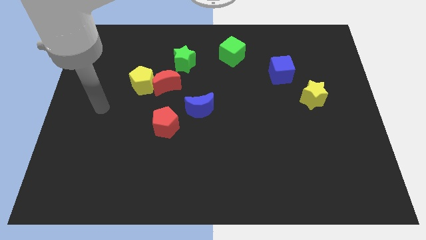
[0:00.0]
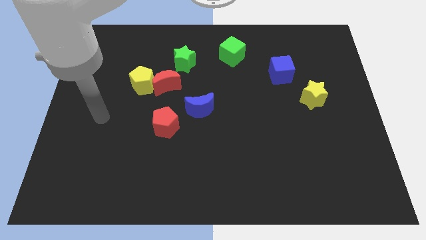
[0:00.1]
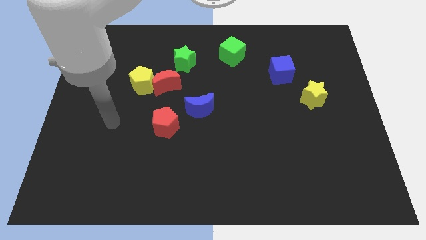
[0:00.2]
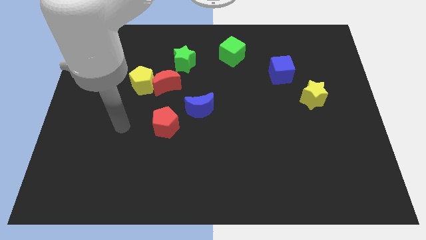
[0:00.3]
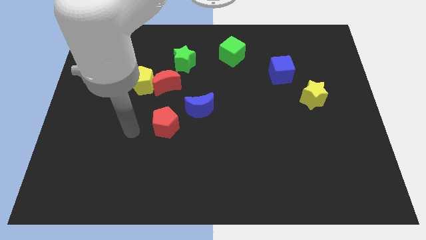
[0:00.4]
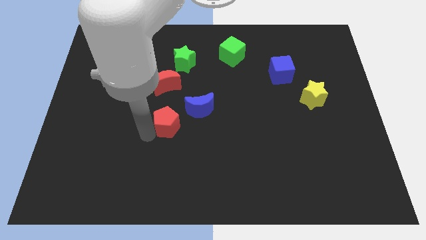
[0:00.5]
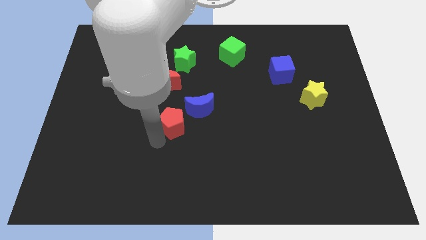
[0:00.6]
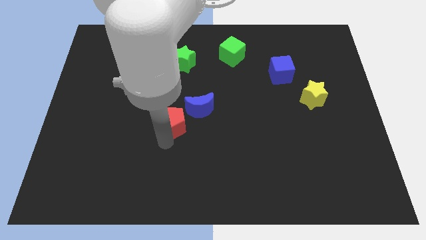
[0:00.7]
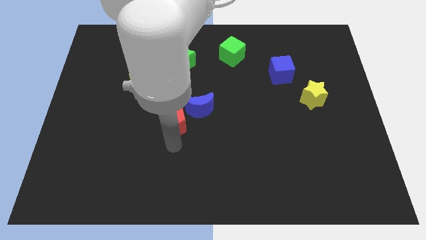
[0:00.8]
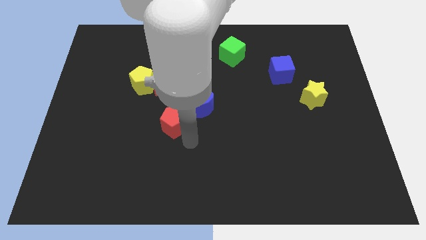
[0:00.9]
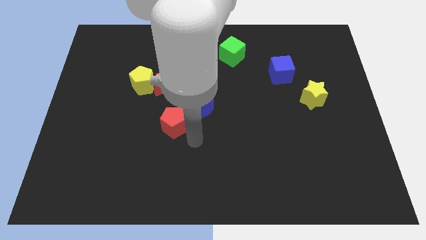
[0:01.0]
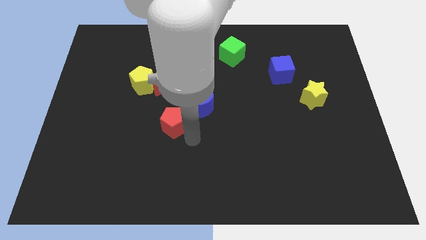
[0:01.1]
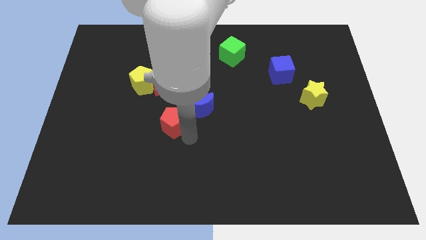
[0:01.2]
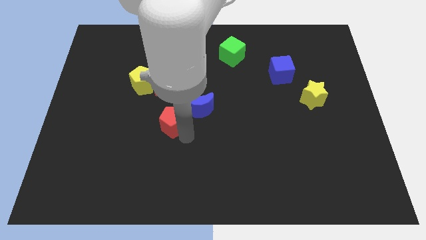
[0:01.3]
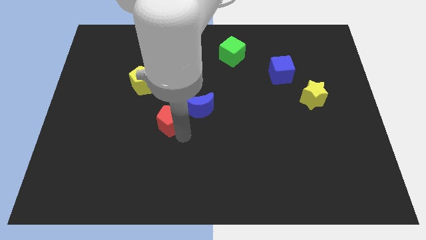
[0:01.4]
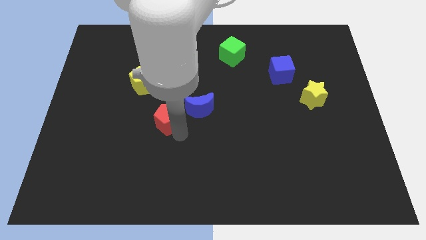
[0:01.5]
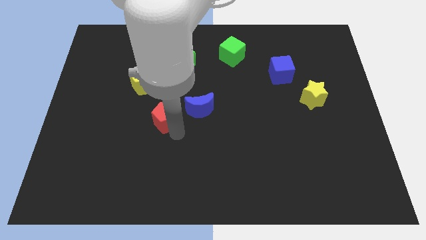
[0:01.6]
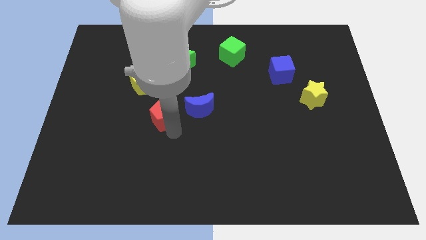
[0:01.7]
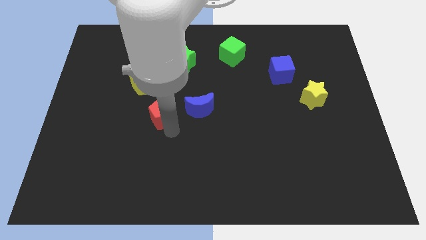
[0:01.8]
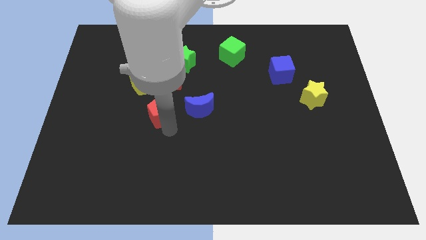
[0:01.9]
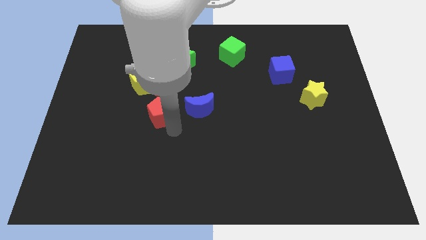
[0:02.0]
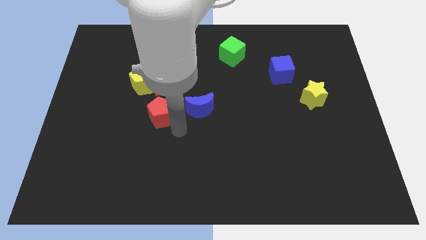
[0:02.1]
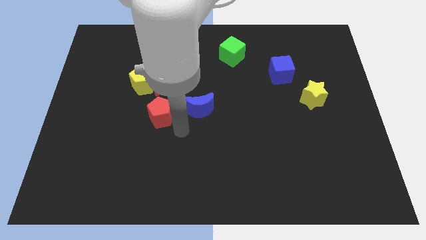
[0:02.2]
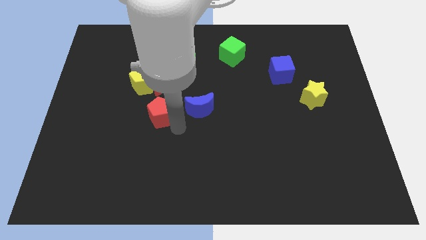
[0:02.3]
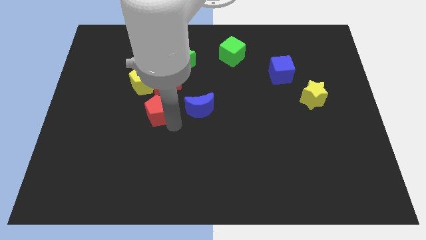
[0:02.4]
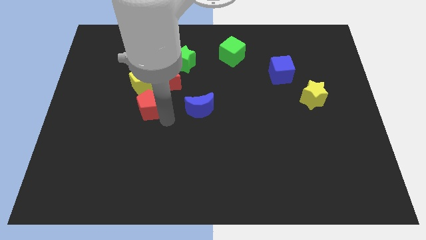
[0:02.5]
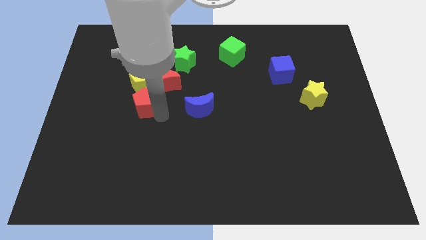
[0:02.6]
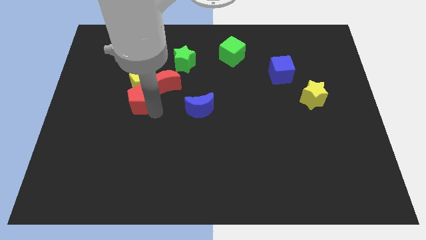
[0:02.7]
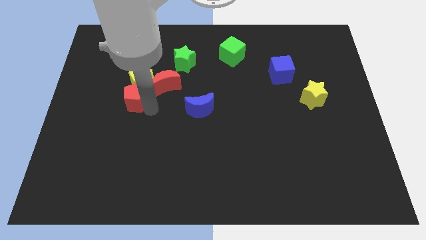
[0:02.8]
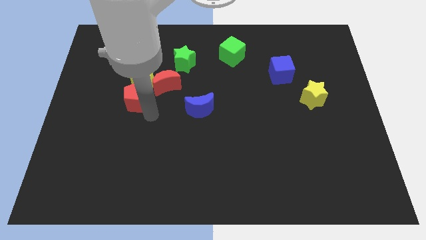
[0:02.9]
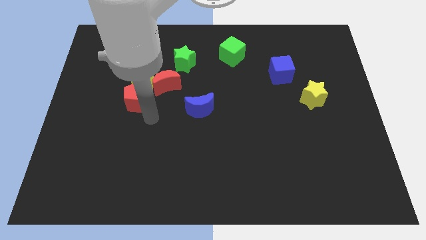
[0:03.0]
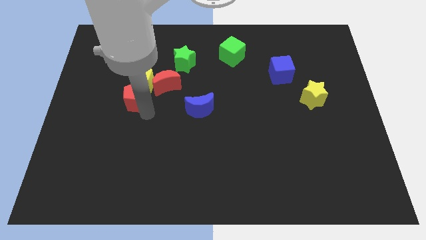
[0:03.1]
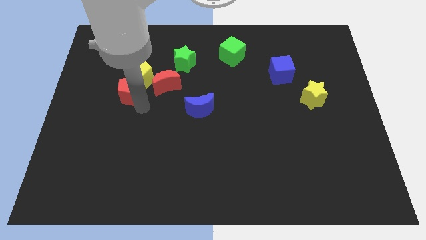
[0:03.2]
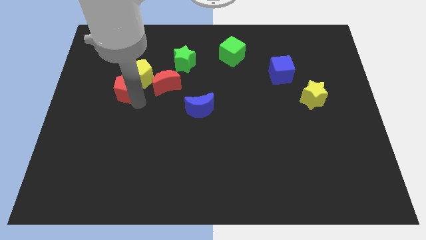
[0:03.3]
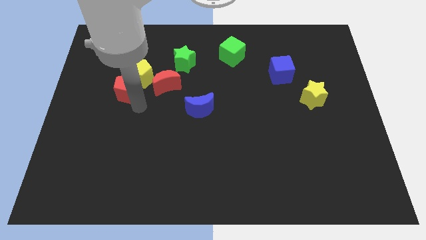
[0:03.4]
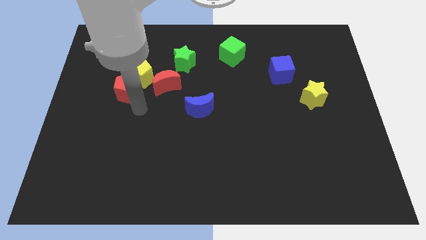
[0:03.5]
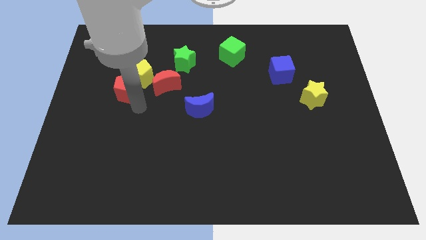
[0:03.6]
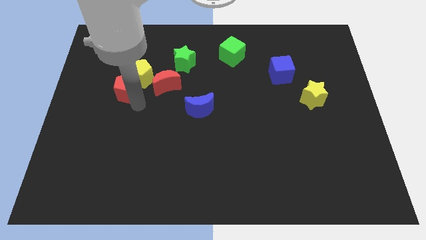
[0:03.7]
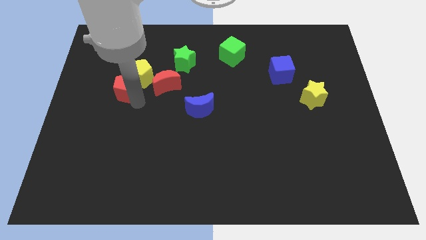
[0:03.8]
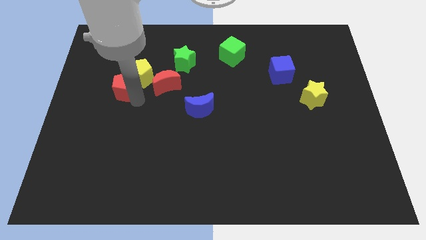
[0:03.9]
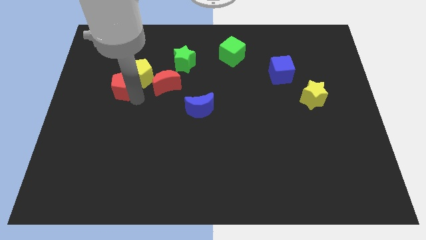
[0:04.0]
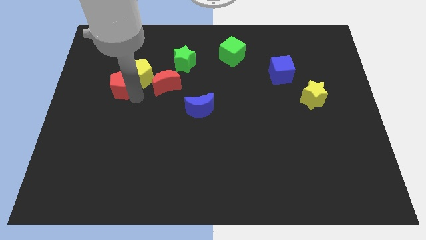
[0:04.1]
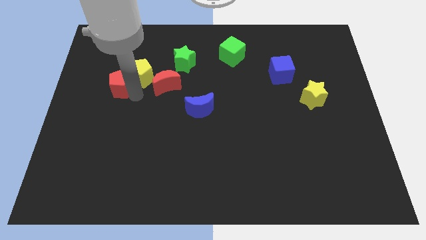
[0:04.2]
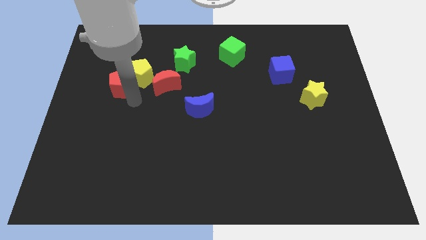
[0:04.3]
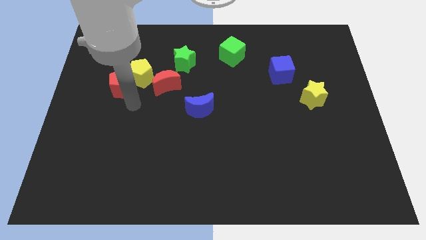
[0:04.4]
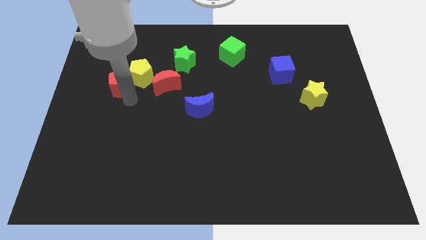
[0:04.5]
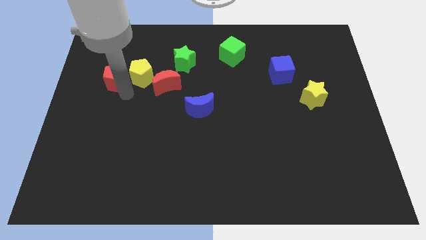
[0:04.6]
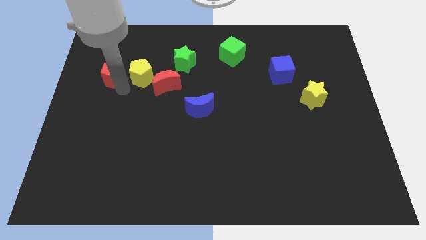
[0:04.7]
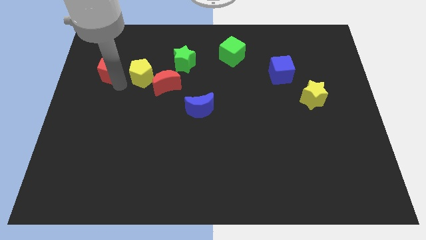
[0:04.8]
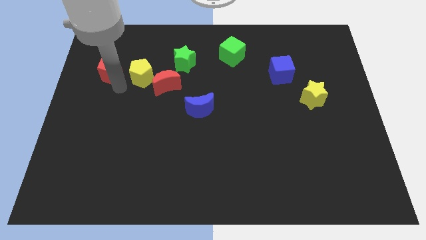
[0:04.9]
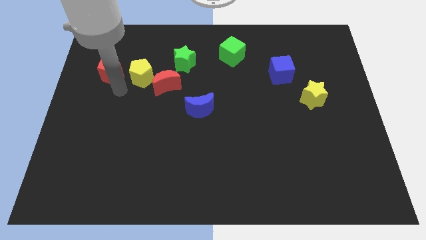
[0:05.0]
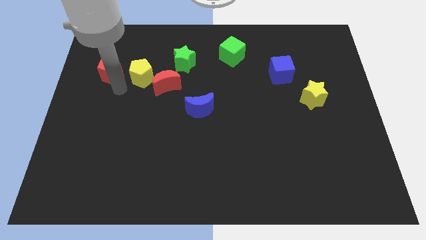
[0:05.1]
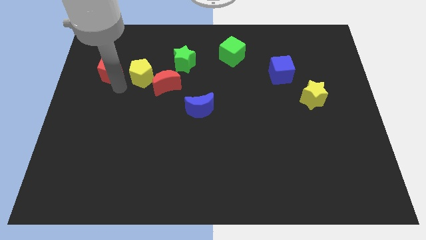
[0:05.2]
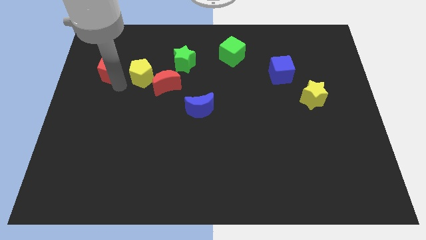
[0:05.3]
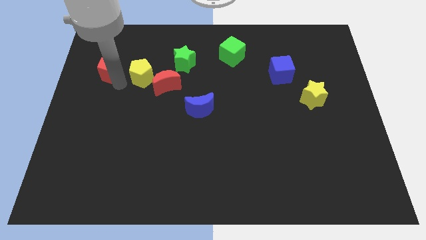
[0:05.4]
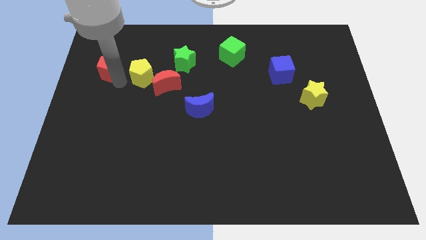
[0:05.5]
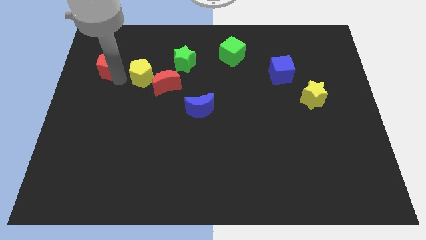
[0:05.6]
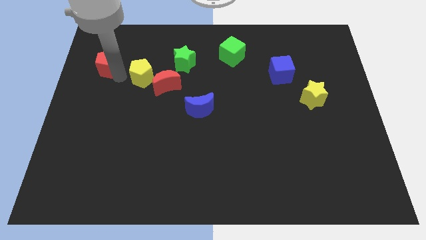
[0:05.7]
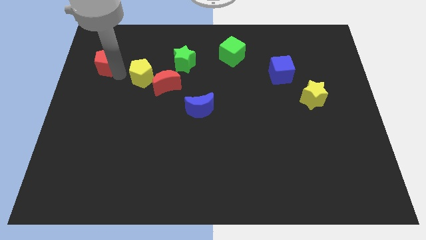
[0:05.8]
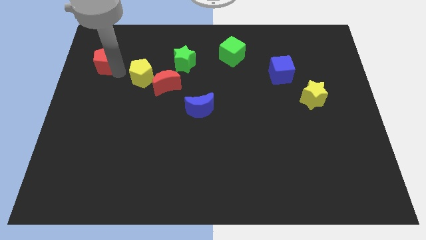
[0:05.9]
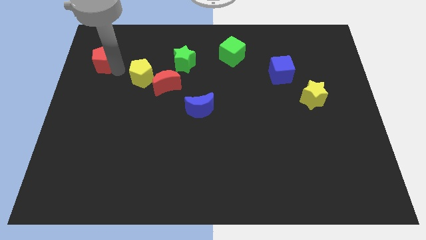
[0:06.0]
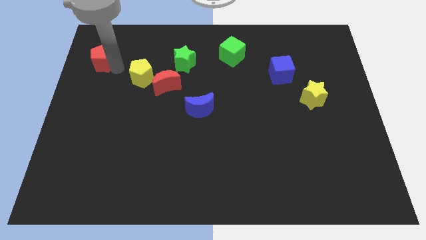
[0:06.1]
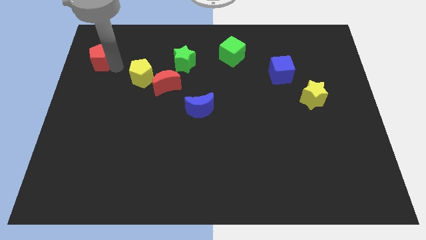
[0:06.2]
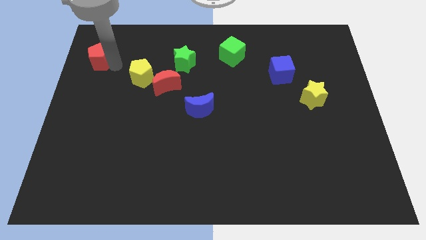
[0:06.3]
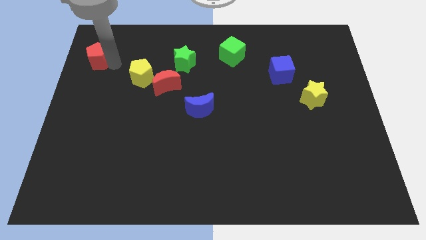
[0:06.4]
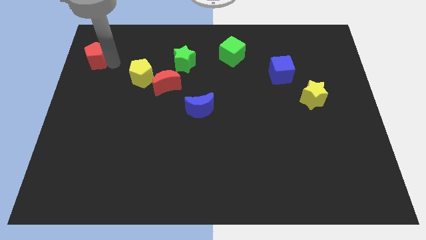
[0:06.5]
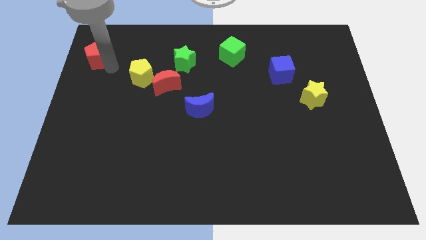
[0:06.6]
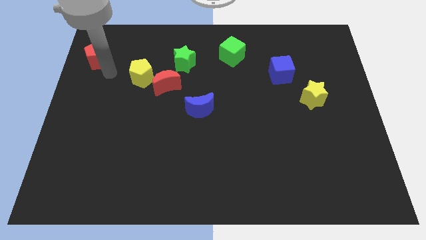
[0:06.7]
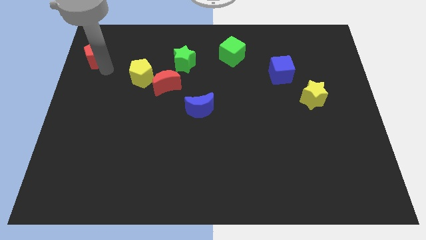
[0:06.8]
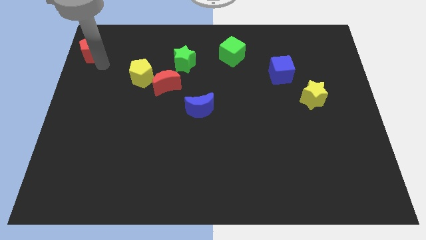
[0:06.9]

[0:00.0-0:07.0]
put the red pentagon to the upper left corner
